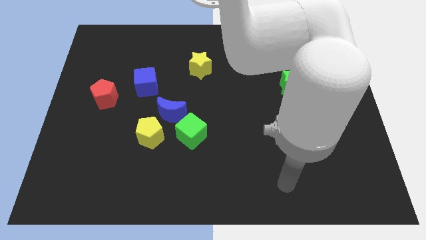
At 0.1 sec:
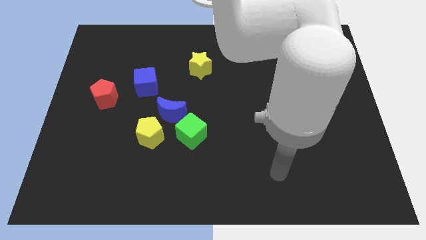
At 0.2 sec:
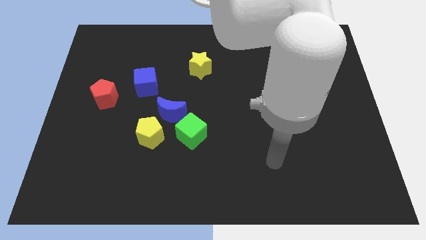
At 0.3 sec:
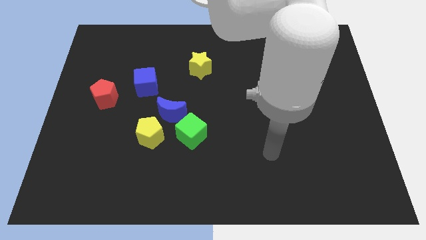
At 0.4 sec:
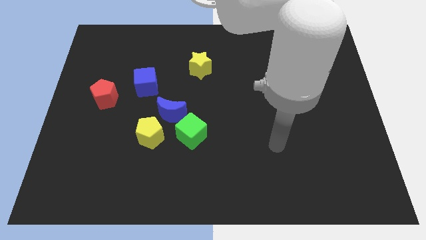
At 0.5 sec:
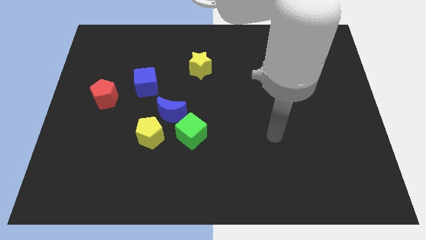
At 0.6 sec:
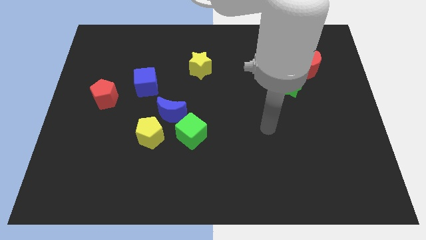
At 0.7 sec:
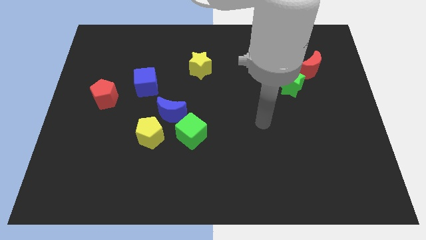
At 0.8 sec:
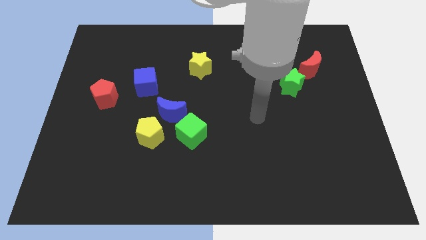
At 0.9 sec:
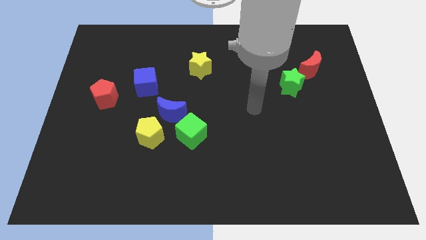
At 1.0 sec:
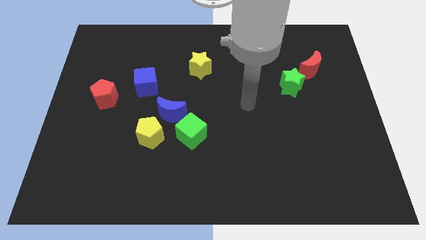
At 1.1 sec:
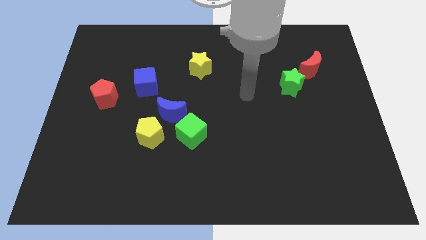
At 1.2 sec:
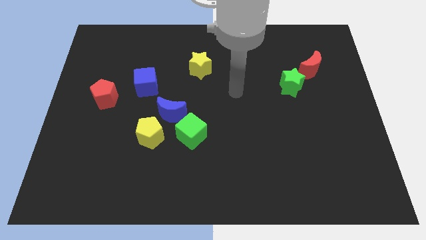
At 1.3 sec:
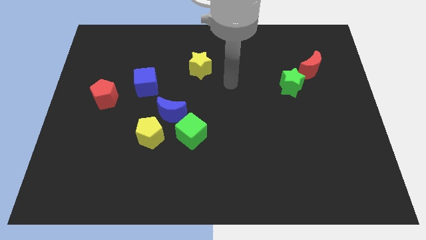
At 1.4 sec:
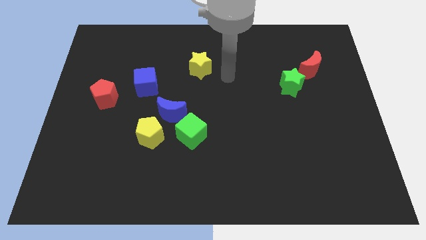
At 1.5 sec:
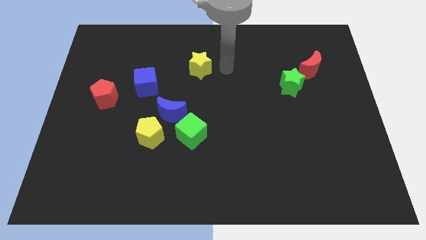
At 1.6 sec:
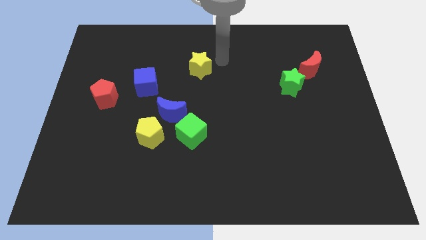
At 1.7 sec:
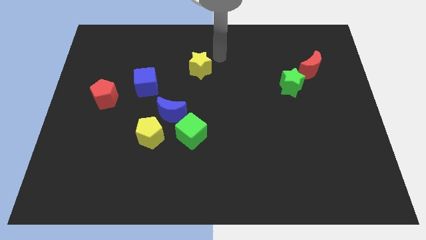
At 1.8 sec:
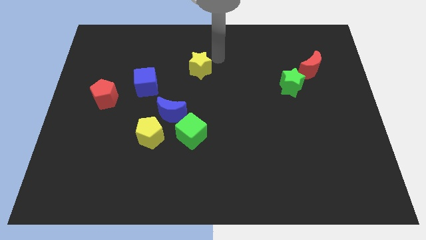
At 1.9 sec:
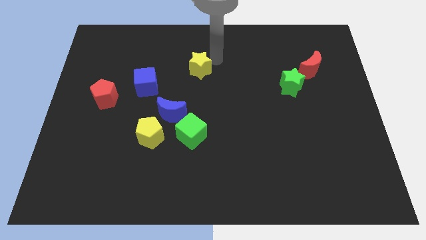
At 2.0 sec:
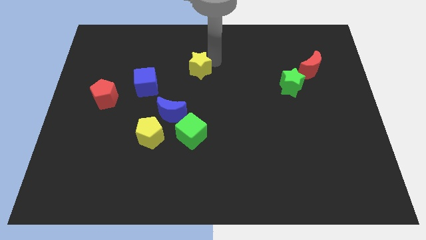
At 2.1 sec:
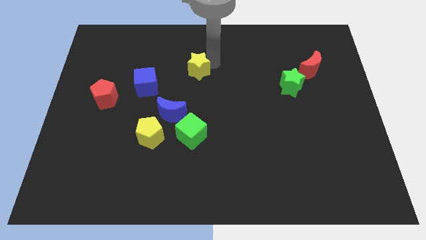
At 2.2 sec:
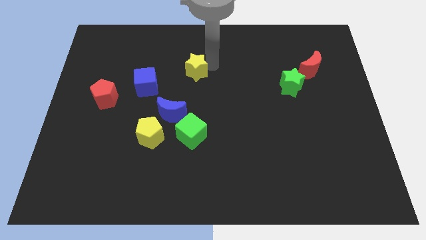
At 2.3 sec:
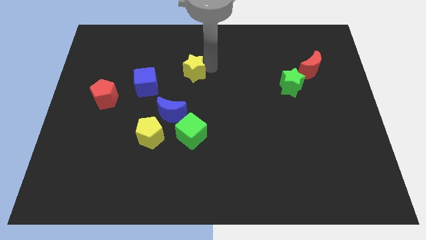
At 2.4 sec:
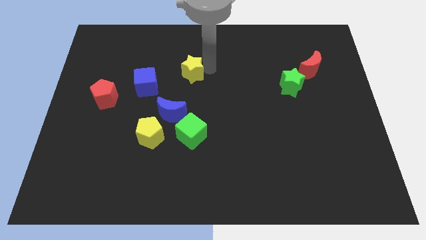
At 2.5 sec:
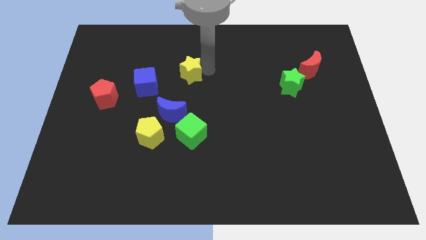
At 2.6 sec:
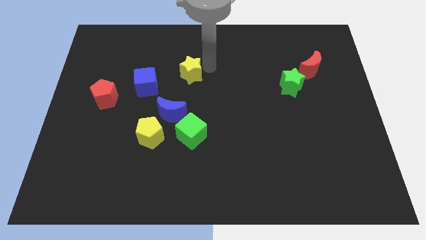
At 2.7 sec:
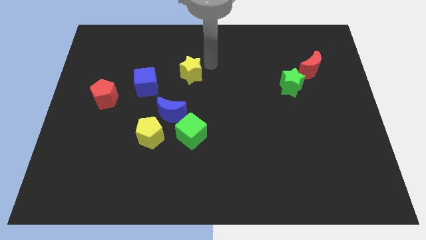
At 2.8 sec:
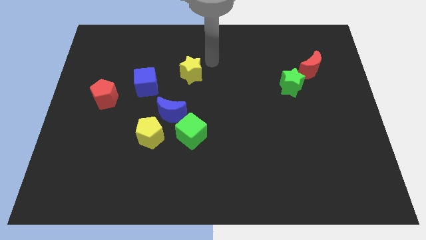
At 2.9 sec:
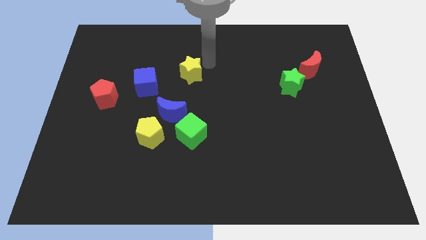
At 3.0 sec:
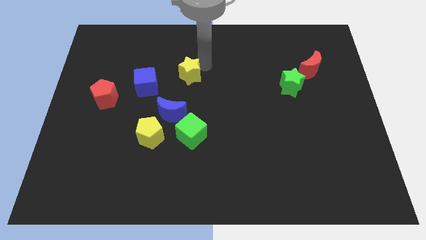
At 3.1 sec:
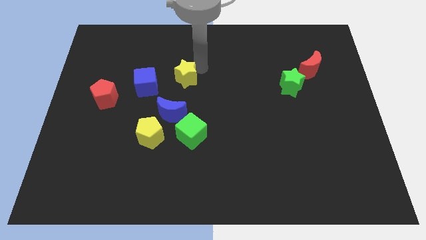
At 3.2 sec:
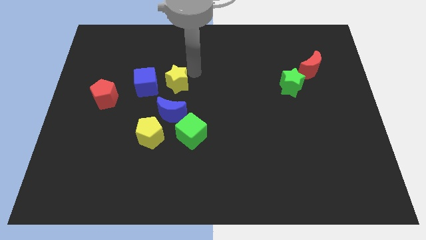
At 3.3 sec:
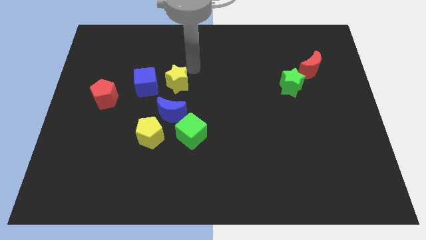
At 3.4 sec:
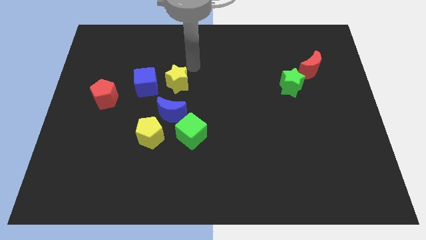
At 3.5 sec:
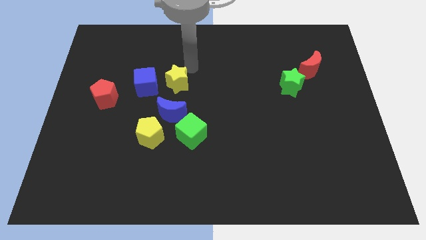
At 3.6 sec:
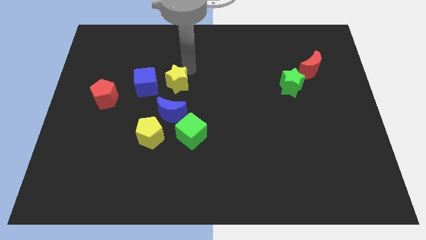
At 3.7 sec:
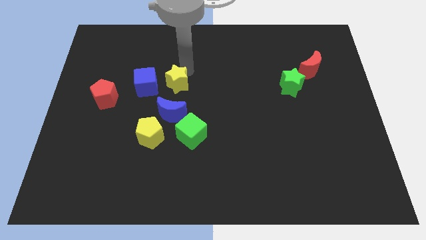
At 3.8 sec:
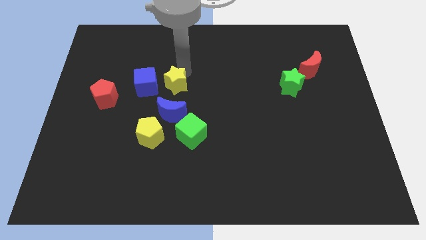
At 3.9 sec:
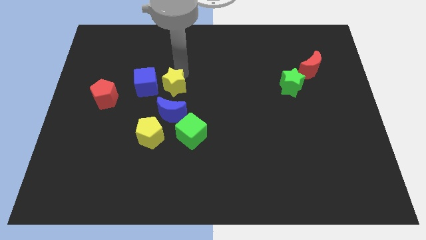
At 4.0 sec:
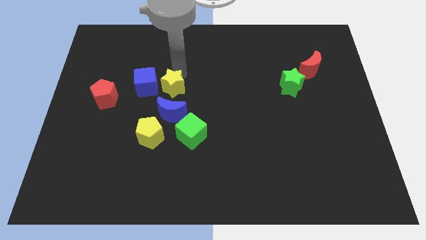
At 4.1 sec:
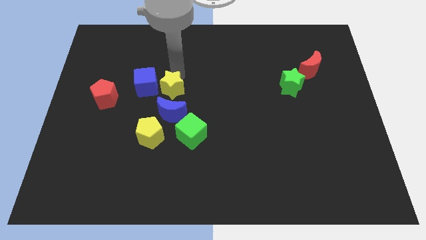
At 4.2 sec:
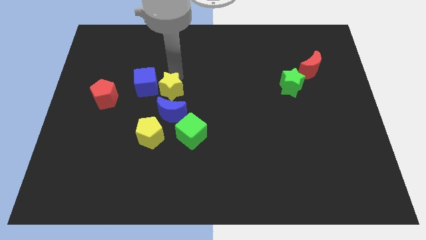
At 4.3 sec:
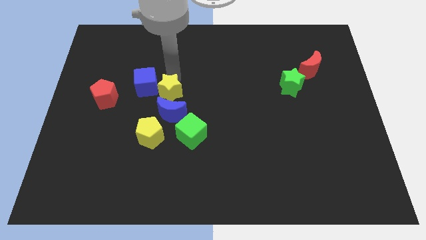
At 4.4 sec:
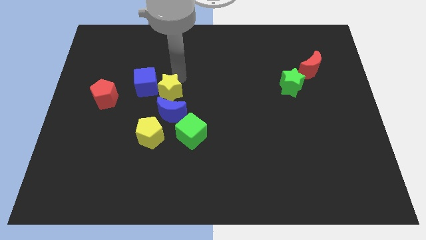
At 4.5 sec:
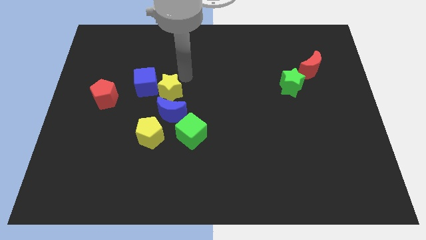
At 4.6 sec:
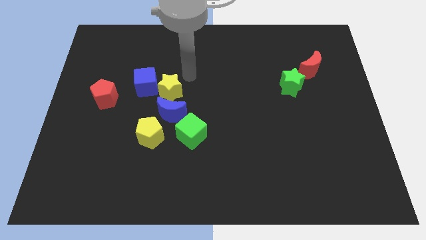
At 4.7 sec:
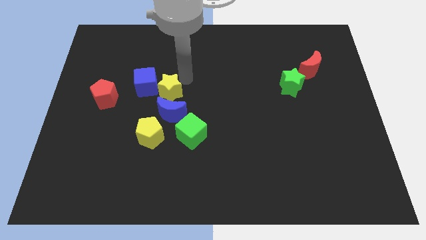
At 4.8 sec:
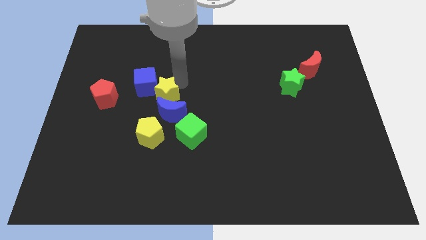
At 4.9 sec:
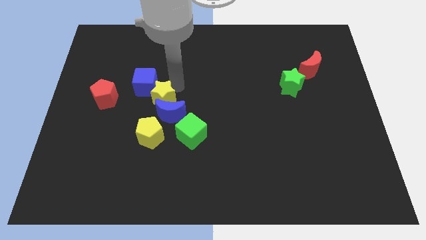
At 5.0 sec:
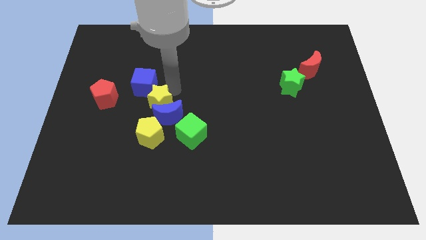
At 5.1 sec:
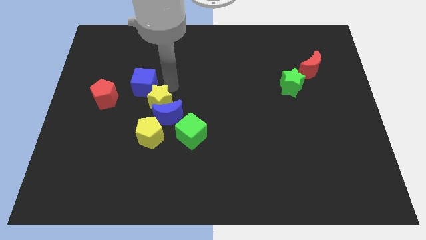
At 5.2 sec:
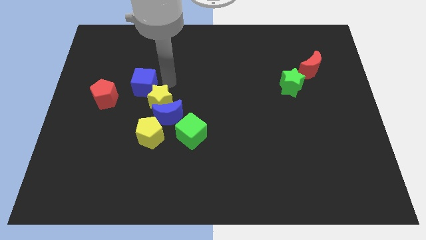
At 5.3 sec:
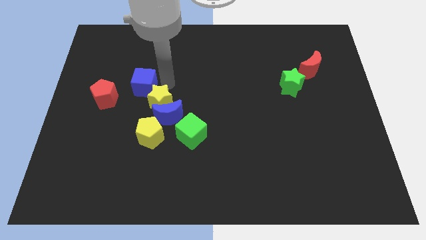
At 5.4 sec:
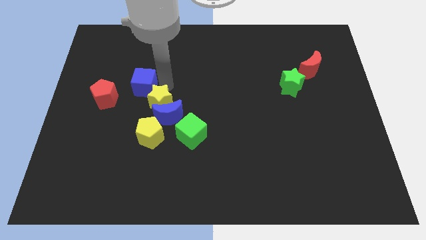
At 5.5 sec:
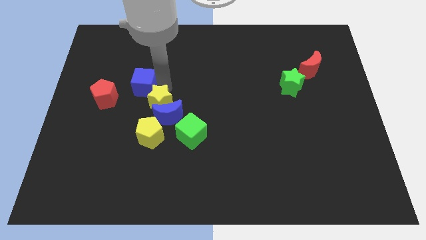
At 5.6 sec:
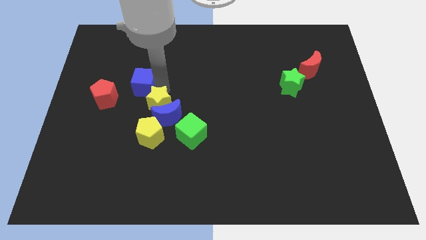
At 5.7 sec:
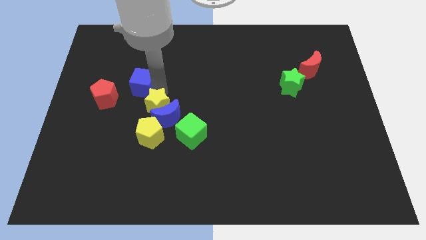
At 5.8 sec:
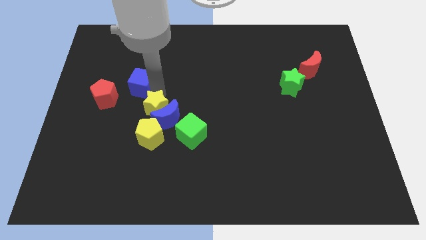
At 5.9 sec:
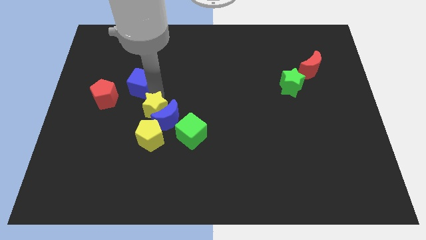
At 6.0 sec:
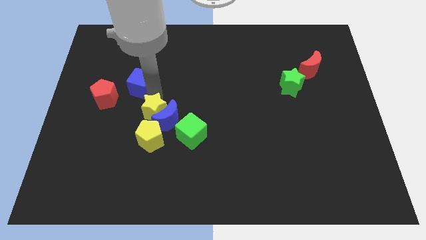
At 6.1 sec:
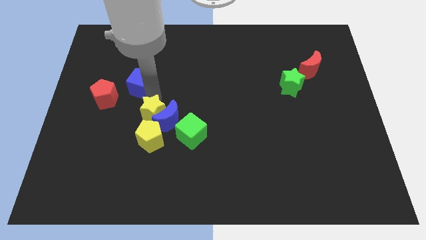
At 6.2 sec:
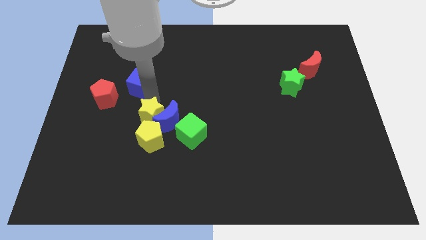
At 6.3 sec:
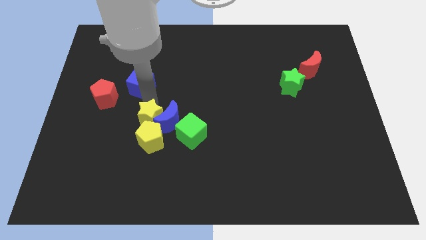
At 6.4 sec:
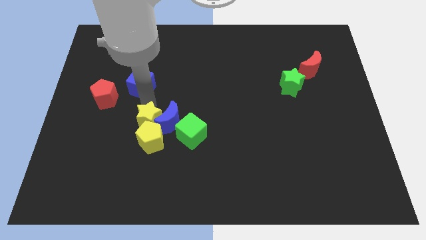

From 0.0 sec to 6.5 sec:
move the yellow star close to the yellow pentagon

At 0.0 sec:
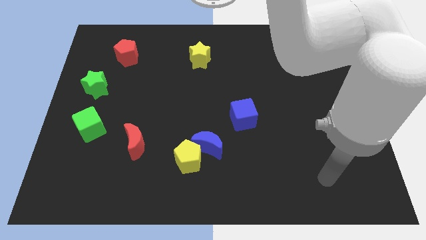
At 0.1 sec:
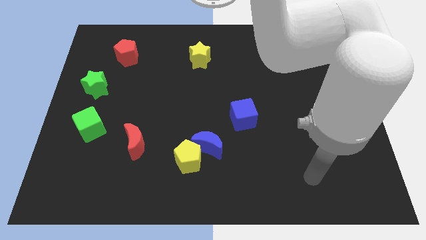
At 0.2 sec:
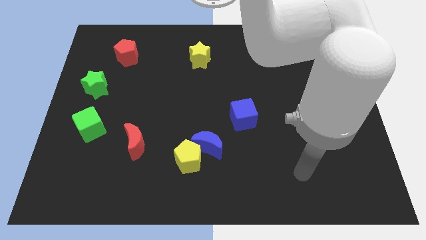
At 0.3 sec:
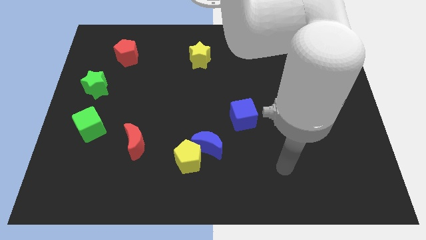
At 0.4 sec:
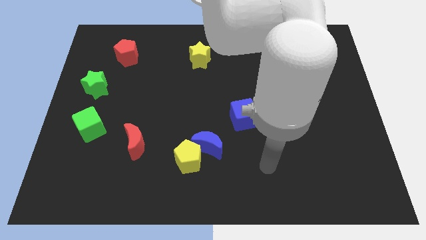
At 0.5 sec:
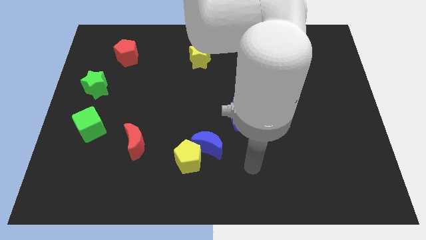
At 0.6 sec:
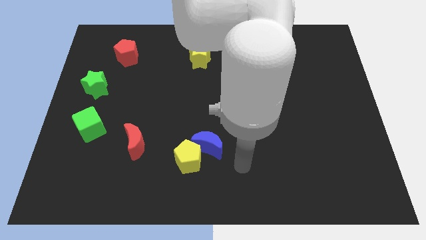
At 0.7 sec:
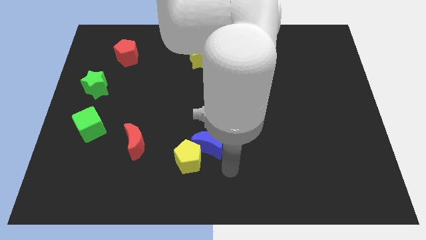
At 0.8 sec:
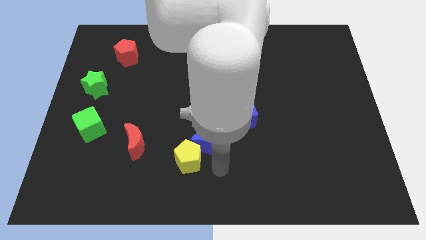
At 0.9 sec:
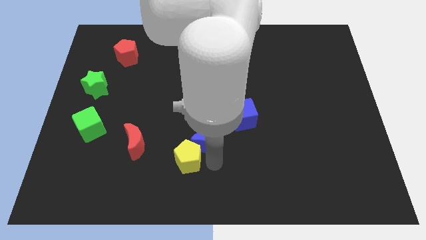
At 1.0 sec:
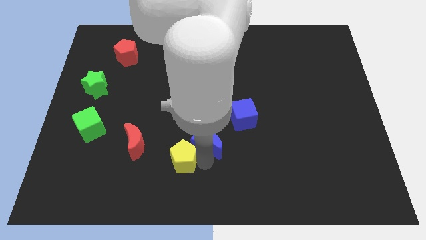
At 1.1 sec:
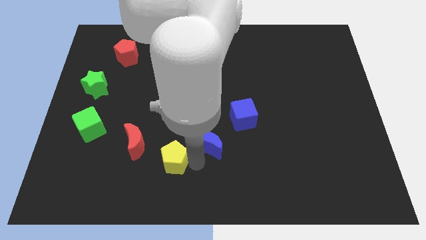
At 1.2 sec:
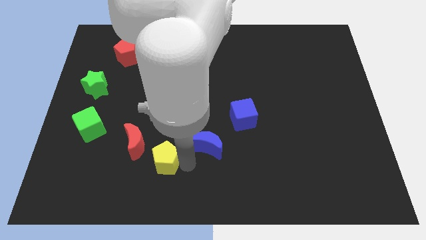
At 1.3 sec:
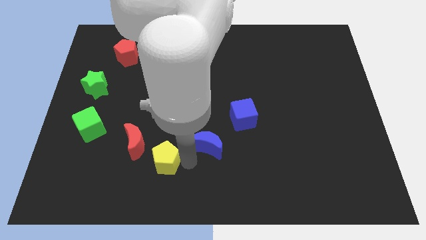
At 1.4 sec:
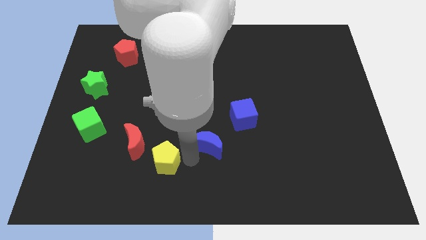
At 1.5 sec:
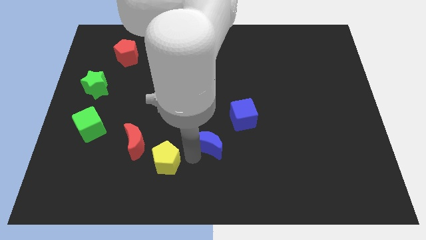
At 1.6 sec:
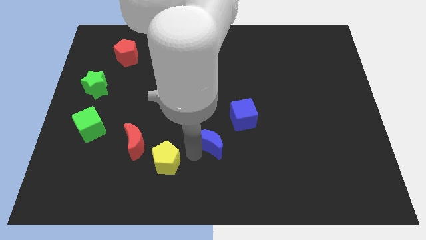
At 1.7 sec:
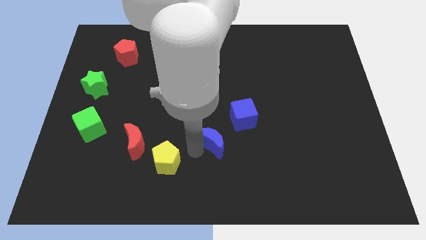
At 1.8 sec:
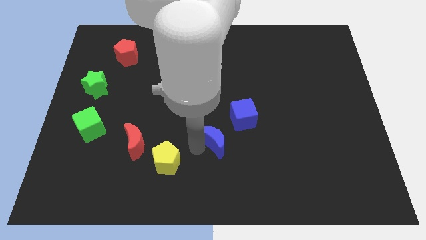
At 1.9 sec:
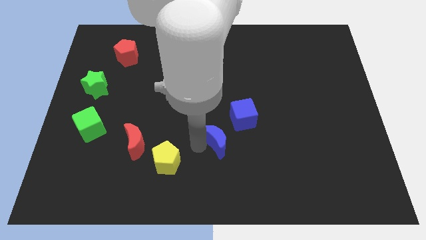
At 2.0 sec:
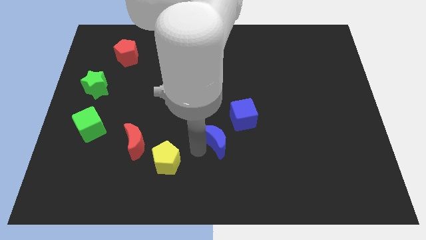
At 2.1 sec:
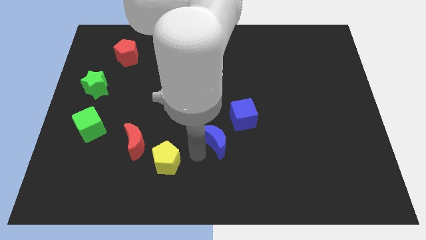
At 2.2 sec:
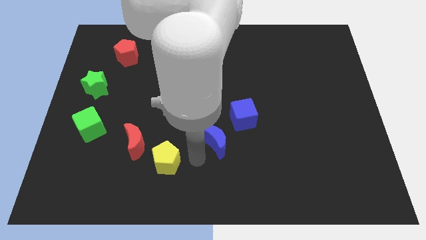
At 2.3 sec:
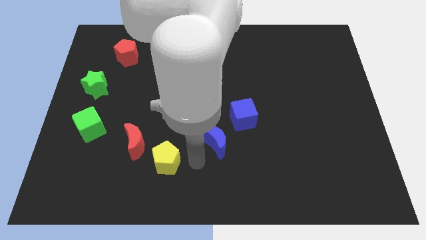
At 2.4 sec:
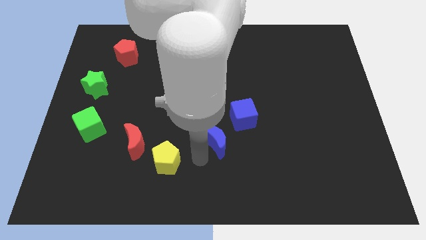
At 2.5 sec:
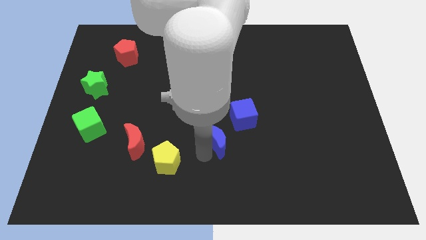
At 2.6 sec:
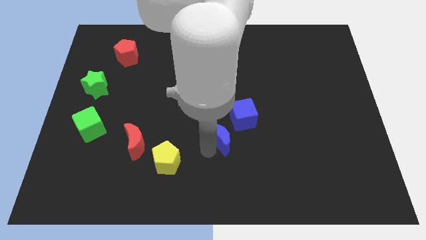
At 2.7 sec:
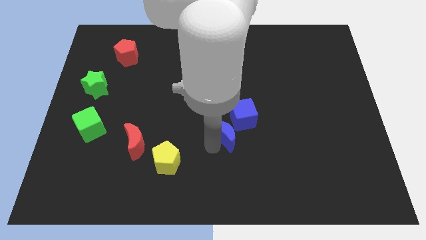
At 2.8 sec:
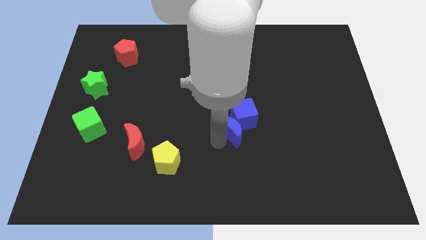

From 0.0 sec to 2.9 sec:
slide the blue moon to the blue cube
